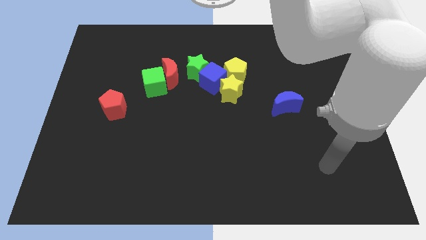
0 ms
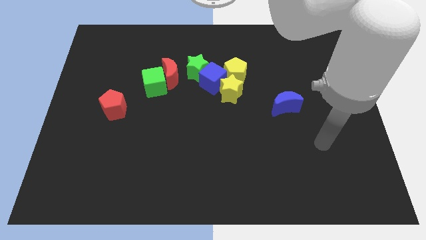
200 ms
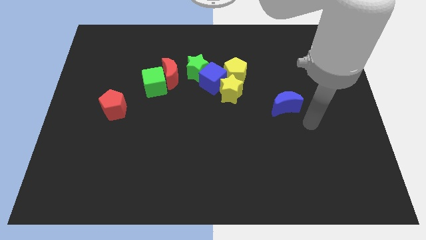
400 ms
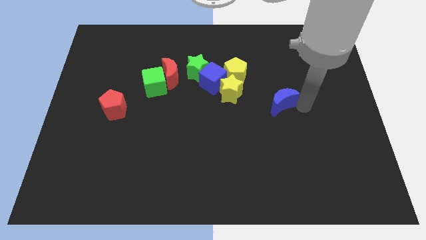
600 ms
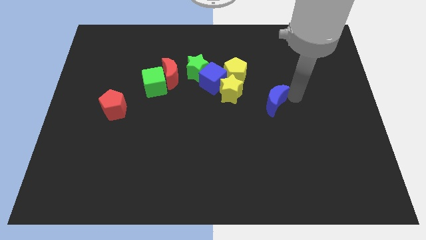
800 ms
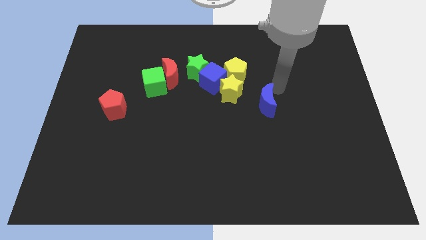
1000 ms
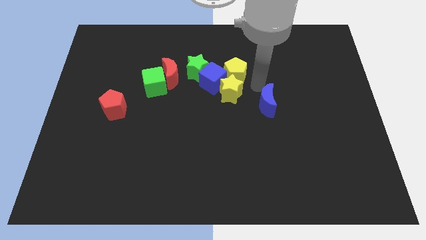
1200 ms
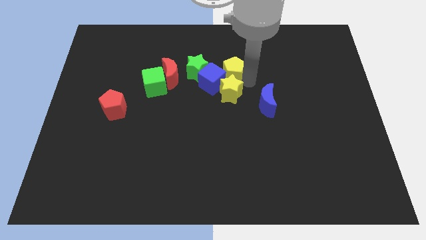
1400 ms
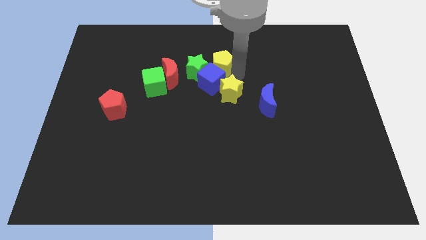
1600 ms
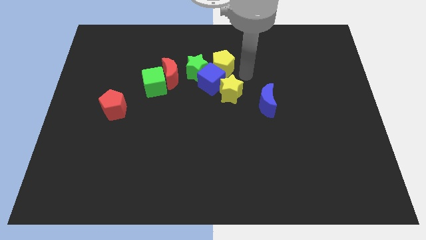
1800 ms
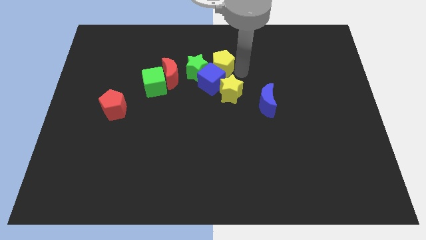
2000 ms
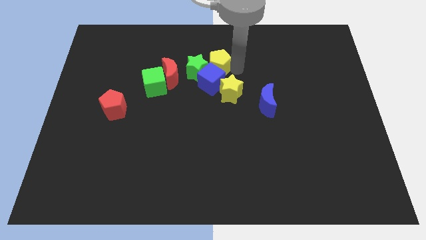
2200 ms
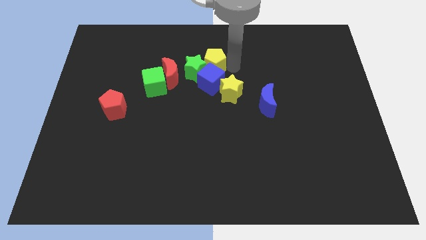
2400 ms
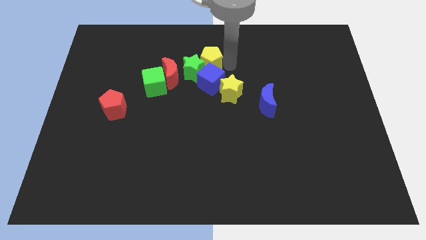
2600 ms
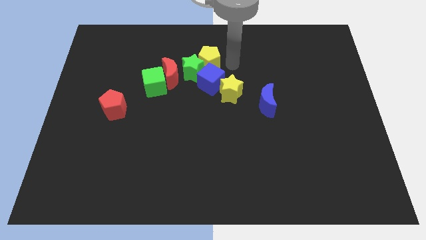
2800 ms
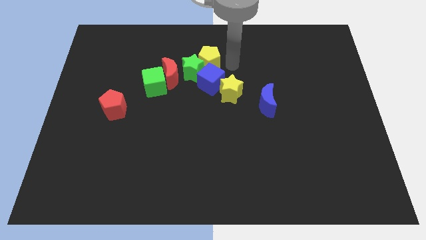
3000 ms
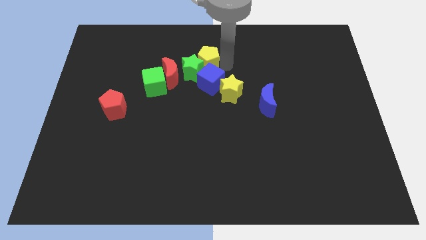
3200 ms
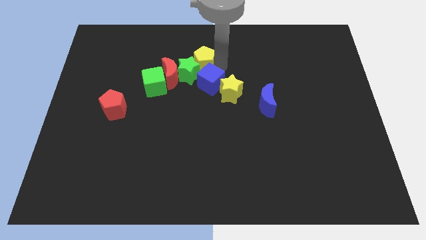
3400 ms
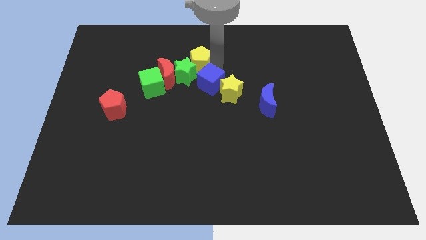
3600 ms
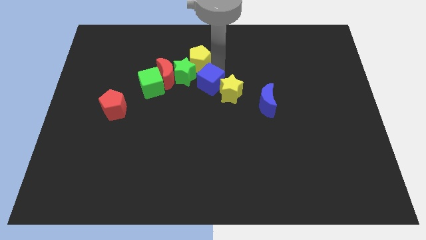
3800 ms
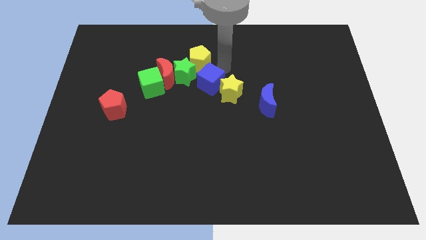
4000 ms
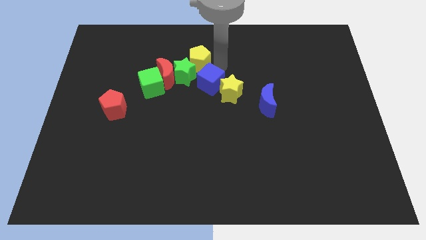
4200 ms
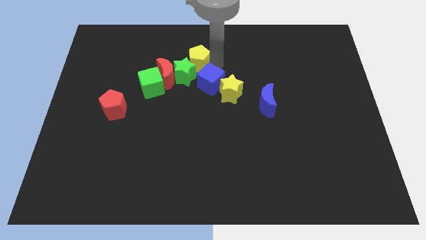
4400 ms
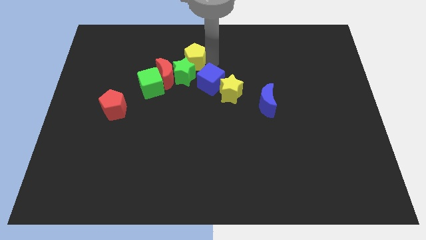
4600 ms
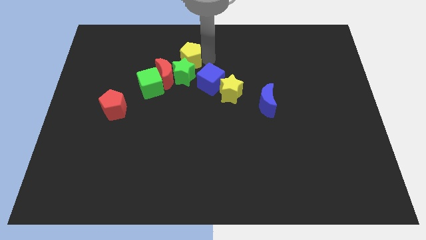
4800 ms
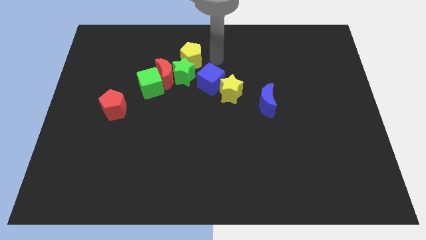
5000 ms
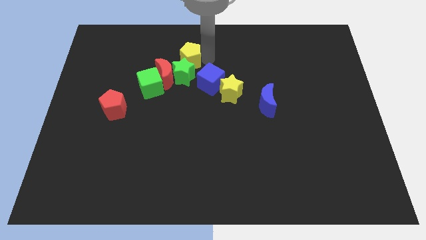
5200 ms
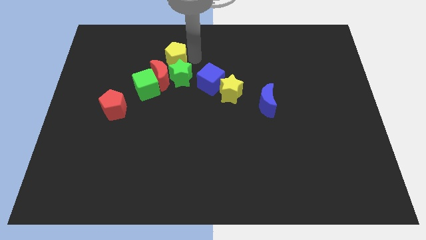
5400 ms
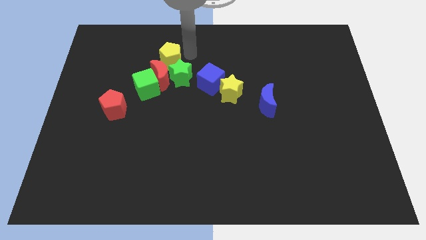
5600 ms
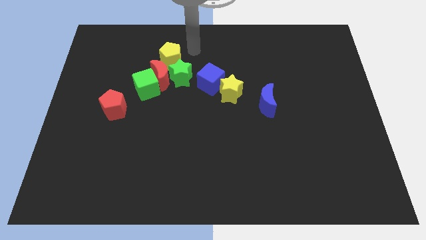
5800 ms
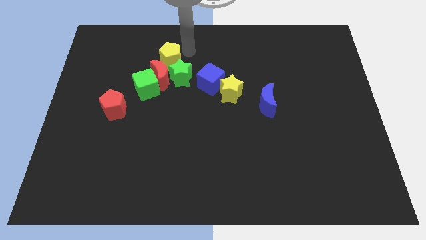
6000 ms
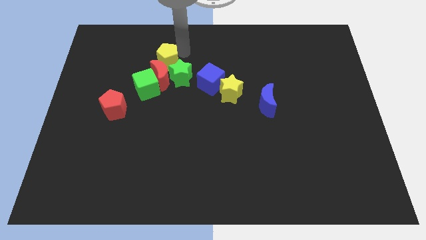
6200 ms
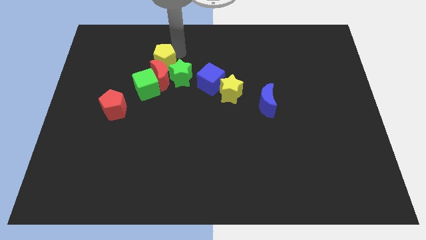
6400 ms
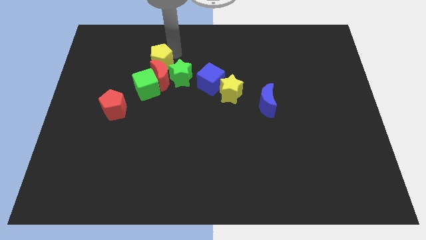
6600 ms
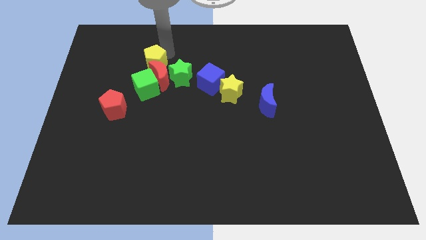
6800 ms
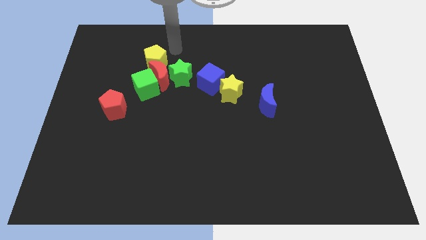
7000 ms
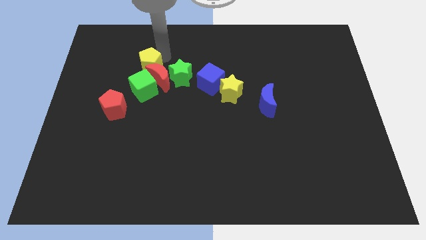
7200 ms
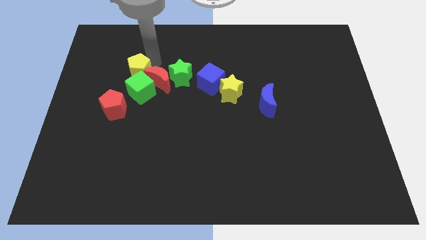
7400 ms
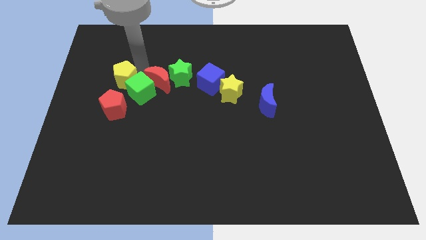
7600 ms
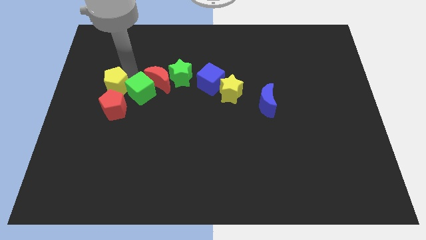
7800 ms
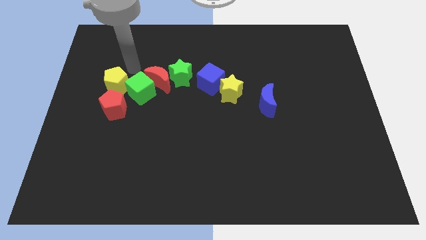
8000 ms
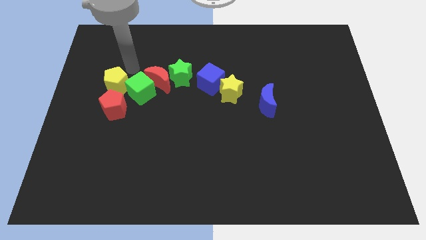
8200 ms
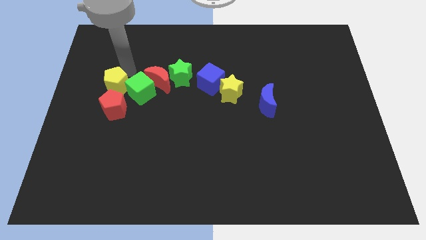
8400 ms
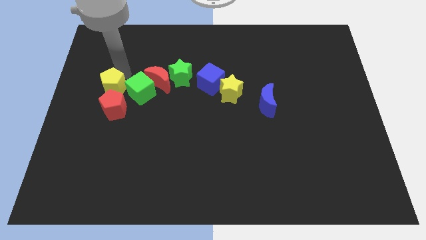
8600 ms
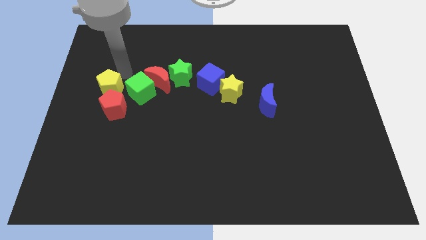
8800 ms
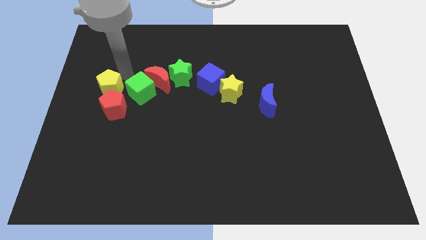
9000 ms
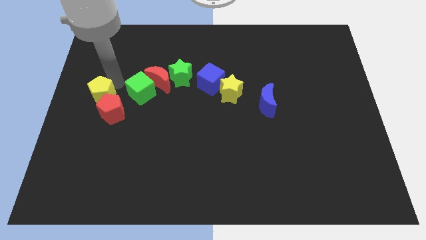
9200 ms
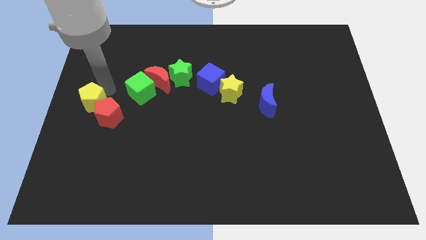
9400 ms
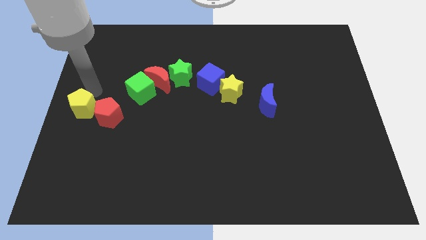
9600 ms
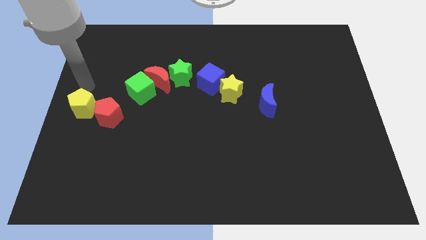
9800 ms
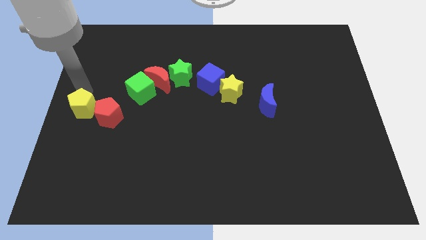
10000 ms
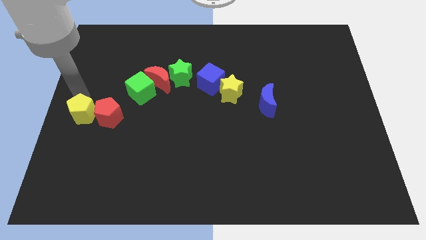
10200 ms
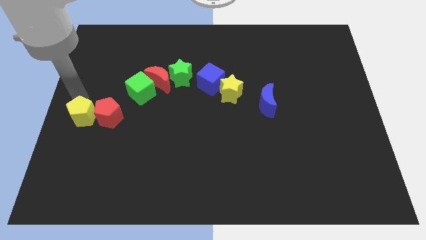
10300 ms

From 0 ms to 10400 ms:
slide the yellow pentagon diagonally down and to the left of the red pentagon

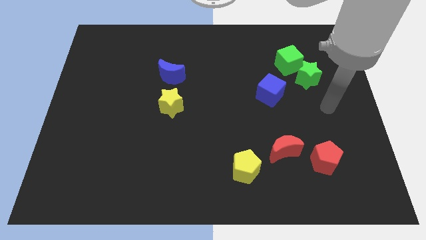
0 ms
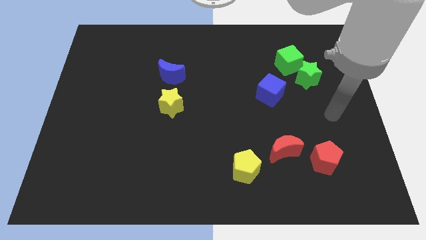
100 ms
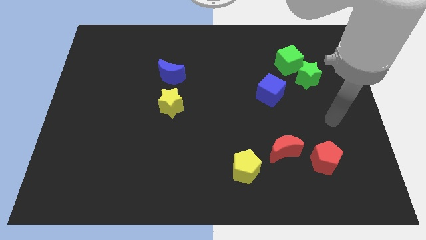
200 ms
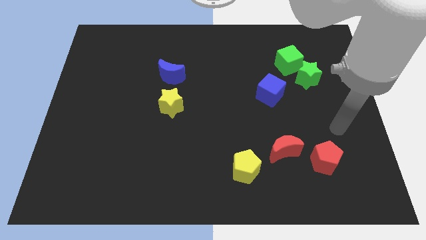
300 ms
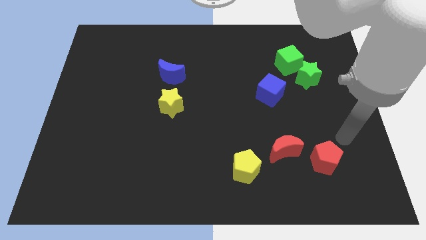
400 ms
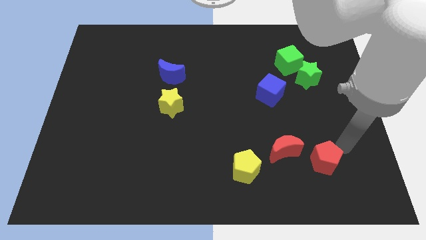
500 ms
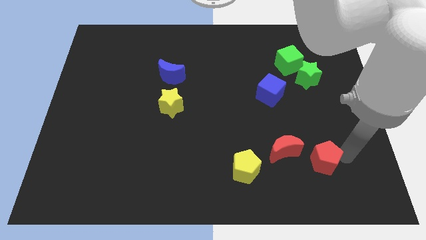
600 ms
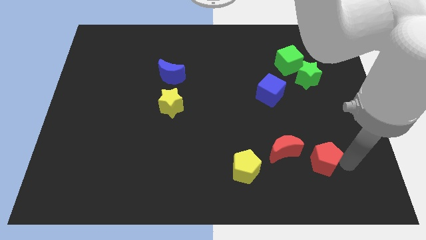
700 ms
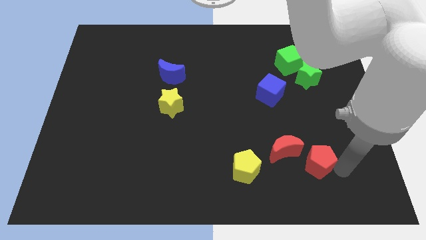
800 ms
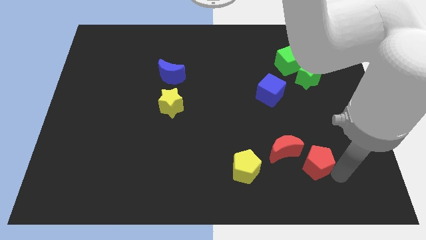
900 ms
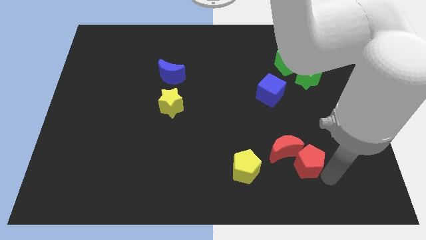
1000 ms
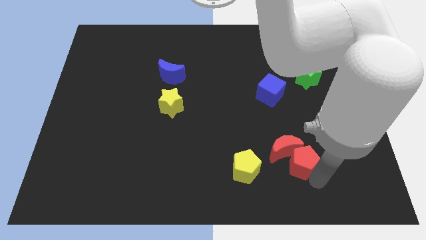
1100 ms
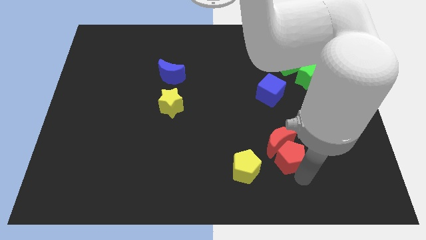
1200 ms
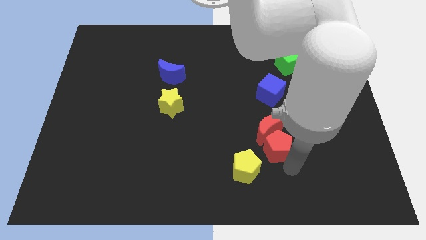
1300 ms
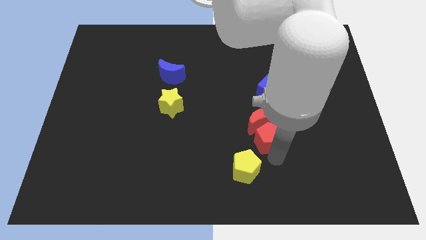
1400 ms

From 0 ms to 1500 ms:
slide the red moon to the bottom left of the blue cube

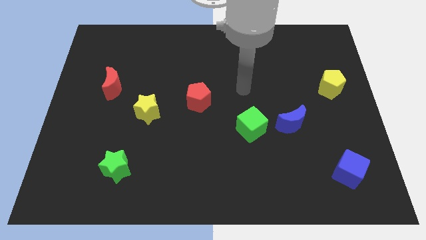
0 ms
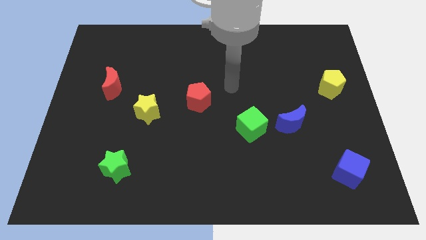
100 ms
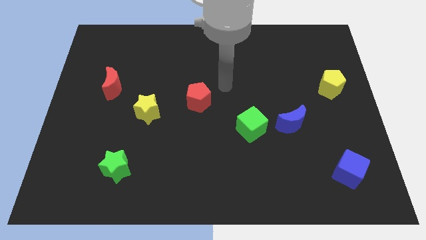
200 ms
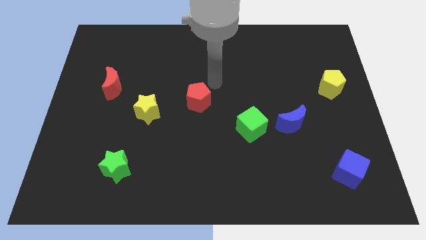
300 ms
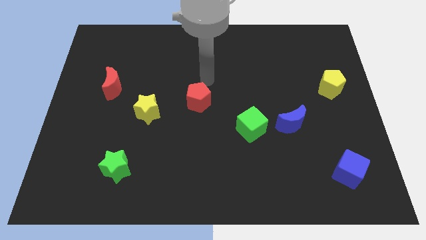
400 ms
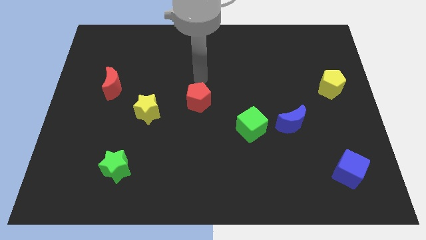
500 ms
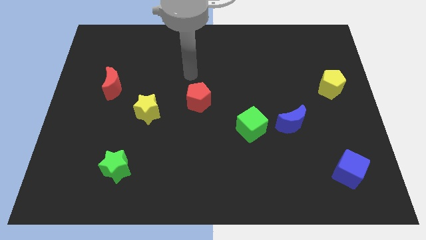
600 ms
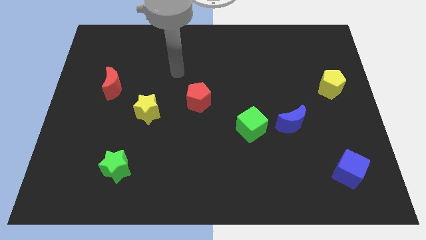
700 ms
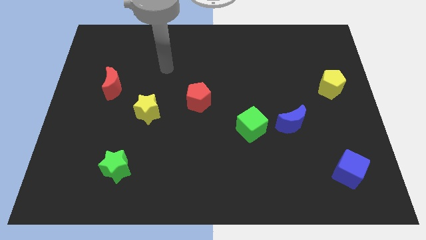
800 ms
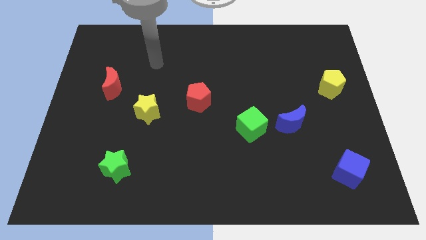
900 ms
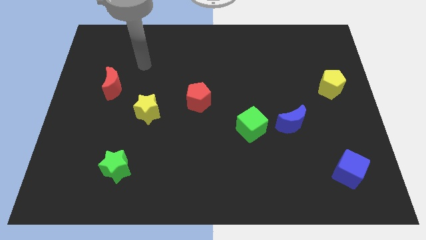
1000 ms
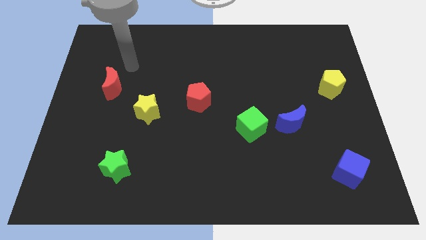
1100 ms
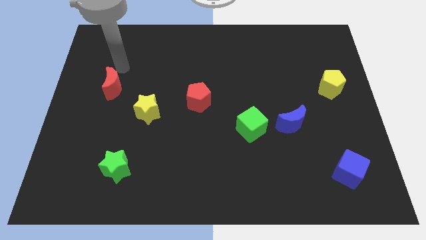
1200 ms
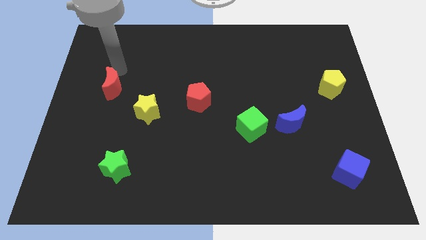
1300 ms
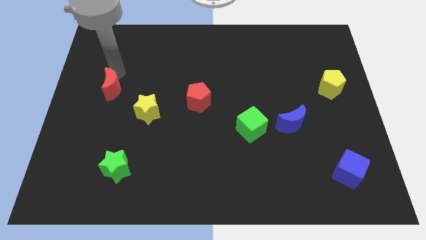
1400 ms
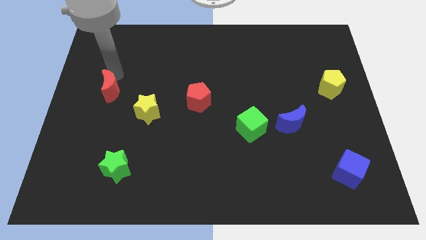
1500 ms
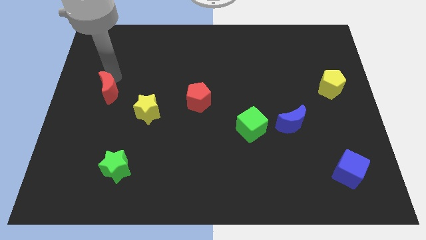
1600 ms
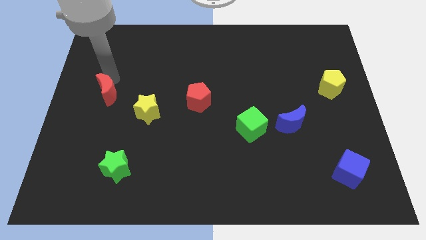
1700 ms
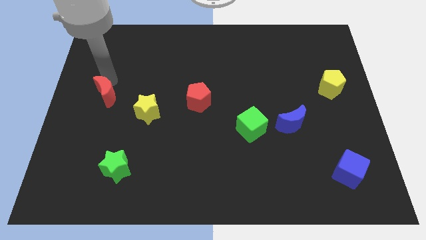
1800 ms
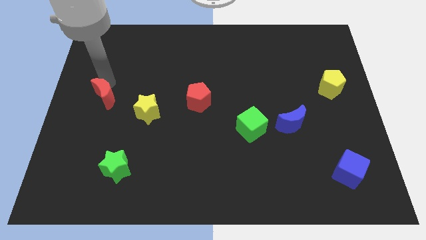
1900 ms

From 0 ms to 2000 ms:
put the red moon left of the yellow star
